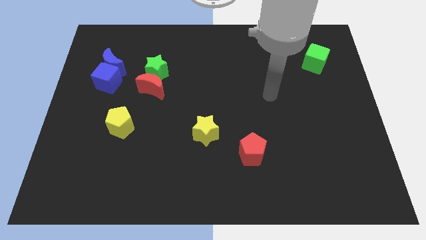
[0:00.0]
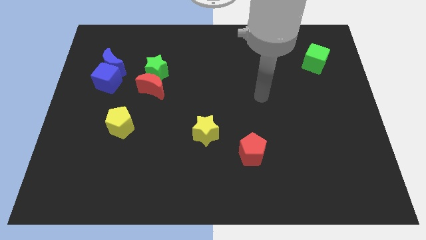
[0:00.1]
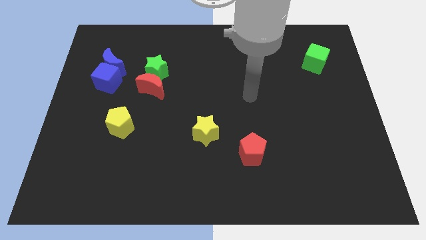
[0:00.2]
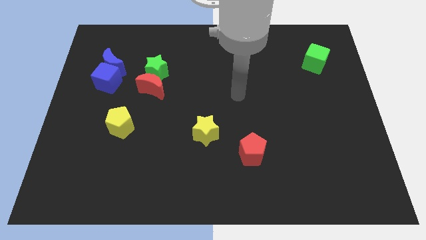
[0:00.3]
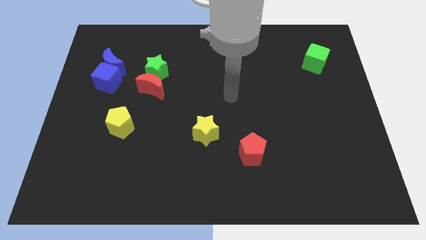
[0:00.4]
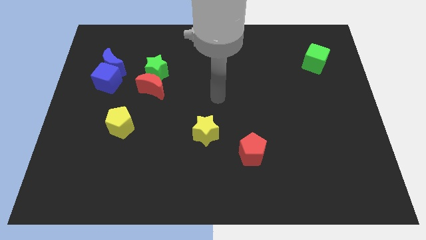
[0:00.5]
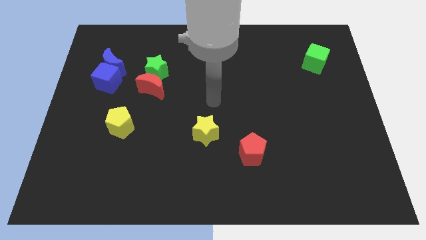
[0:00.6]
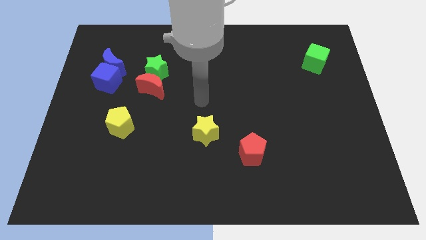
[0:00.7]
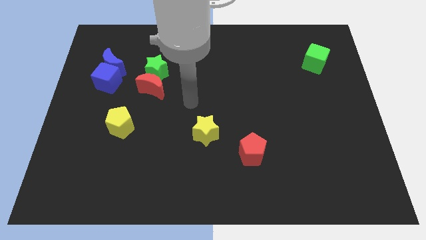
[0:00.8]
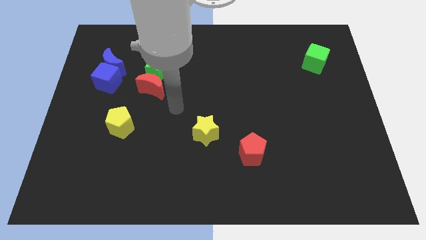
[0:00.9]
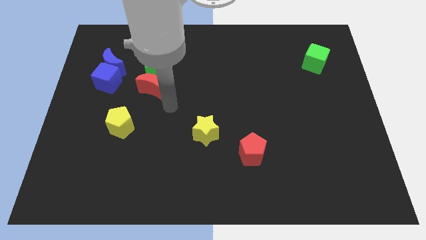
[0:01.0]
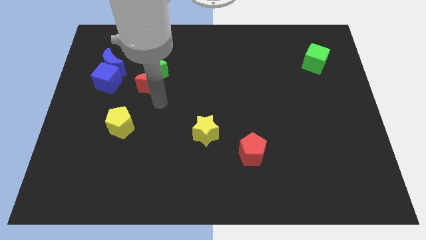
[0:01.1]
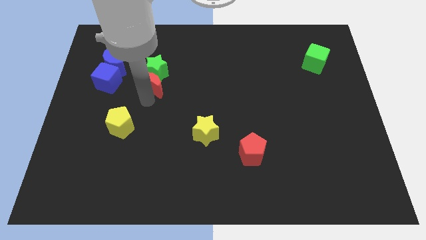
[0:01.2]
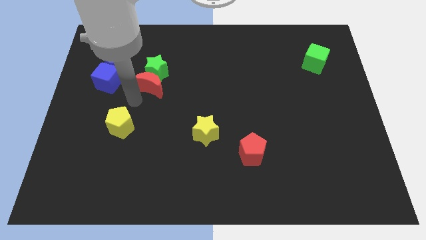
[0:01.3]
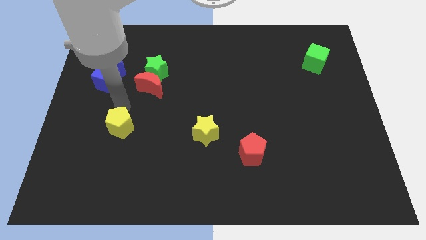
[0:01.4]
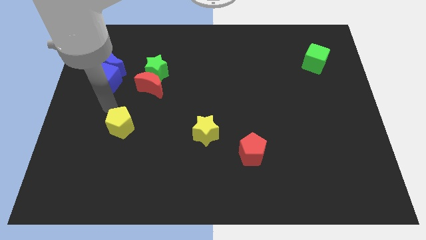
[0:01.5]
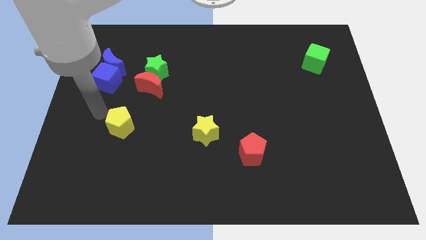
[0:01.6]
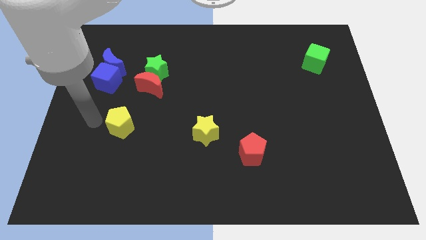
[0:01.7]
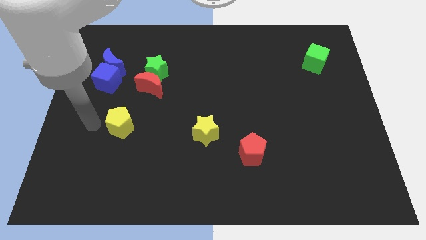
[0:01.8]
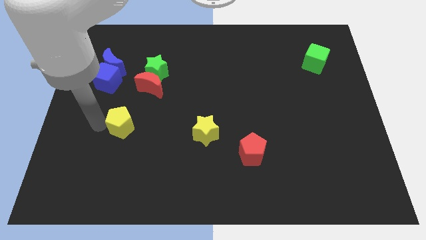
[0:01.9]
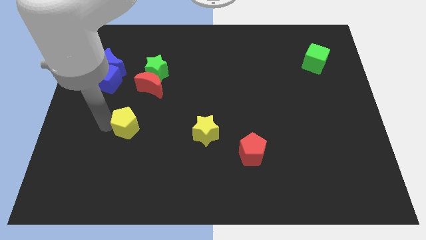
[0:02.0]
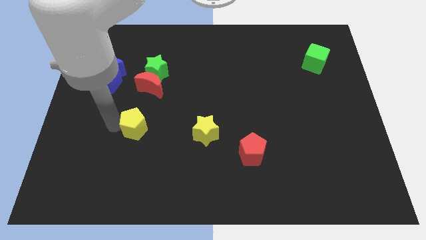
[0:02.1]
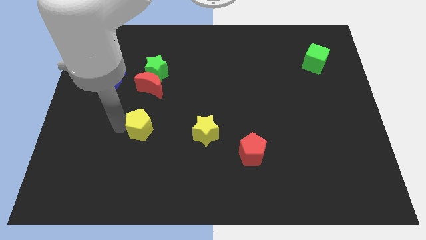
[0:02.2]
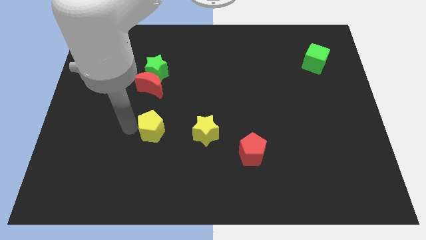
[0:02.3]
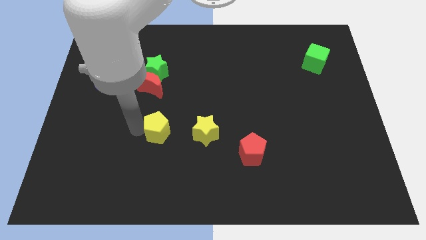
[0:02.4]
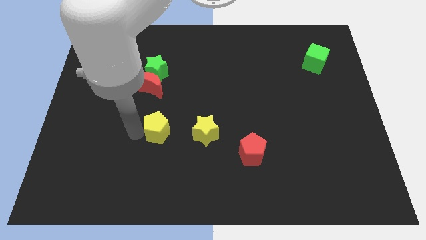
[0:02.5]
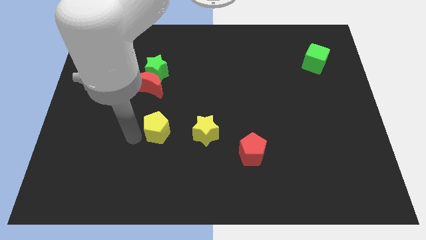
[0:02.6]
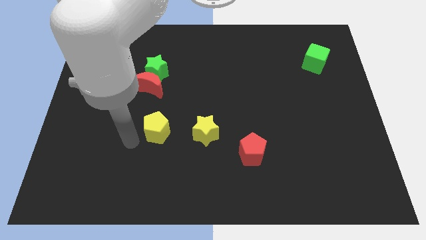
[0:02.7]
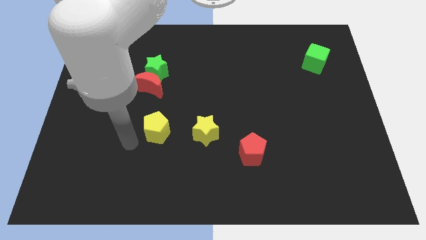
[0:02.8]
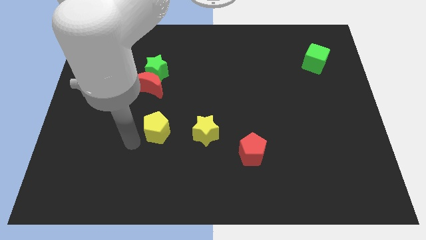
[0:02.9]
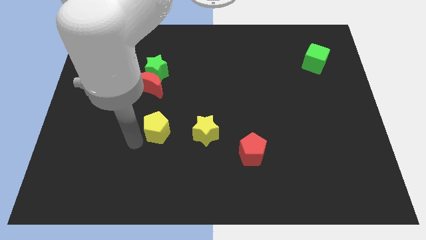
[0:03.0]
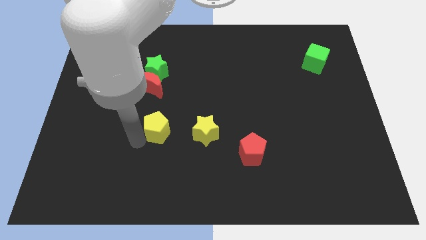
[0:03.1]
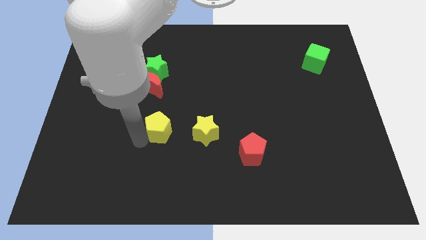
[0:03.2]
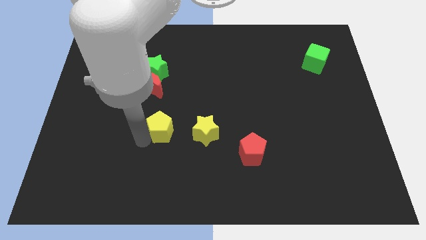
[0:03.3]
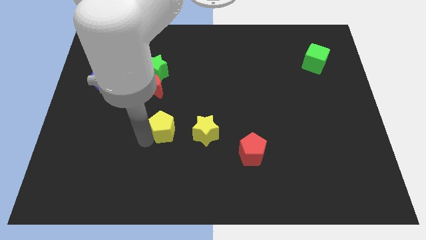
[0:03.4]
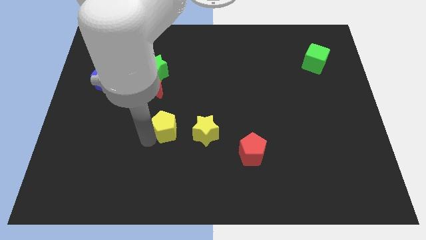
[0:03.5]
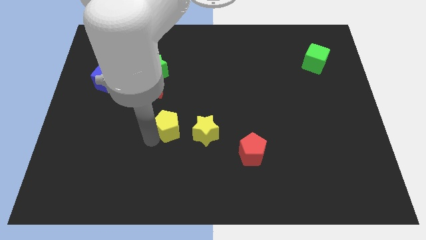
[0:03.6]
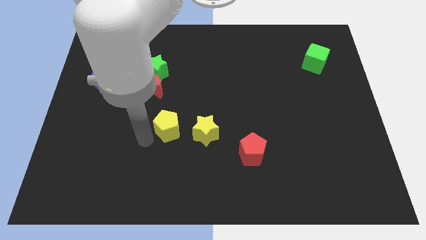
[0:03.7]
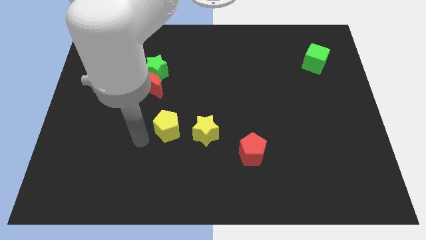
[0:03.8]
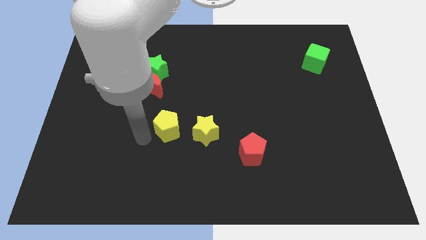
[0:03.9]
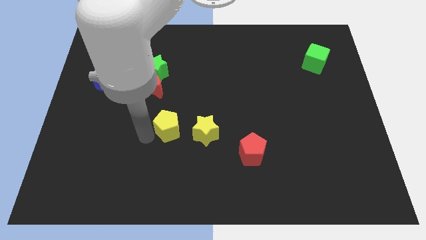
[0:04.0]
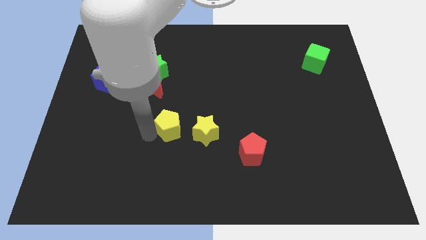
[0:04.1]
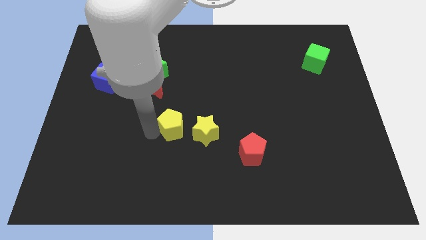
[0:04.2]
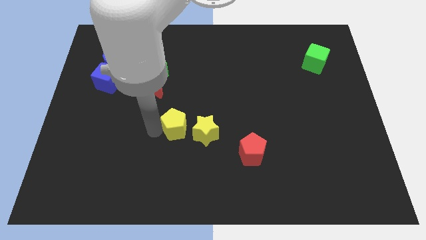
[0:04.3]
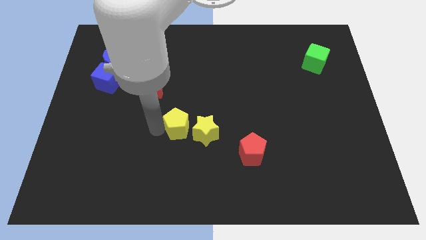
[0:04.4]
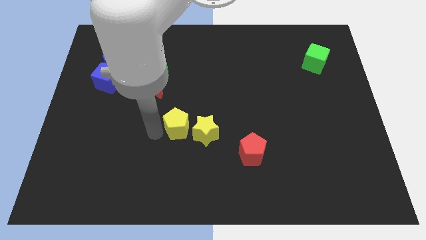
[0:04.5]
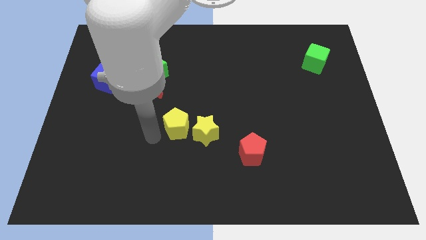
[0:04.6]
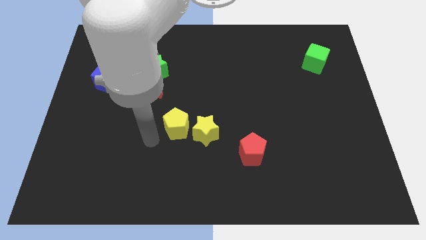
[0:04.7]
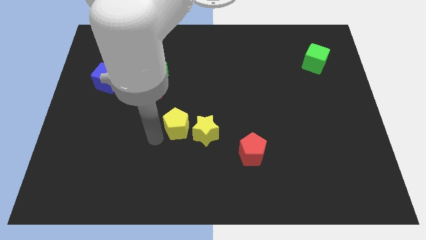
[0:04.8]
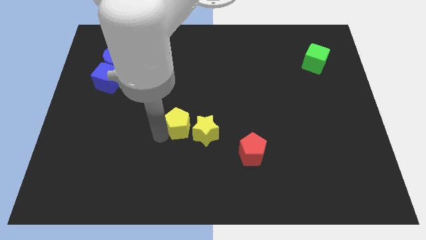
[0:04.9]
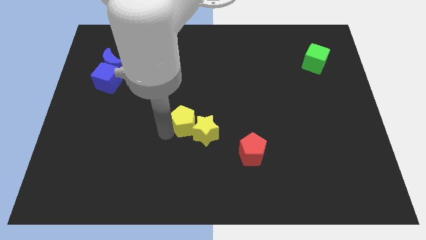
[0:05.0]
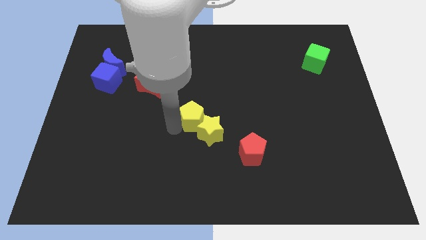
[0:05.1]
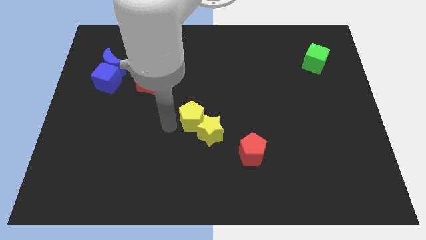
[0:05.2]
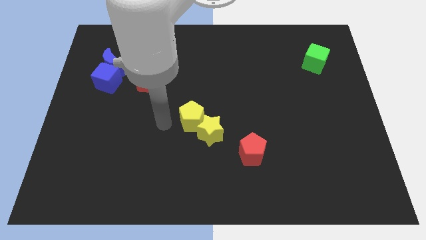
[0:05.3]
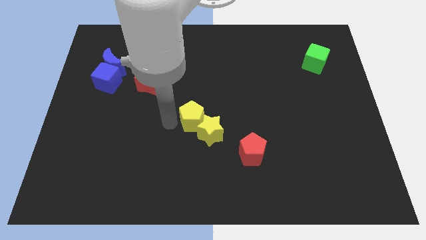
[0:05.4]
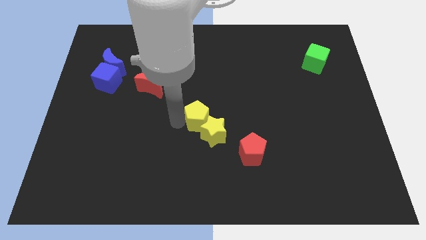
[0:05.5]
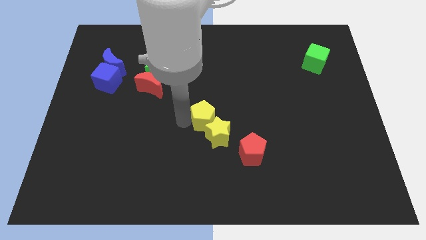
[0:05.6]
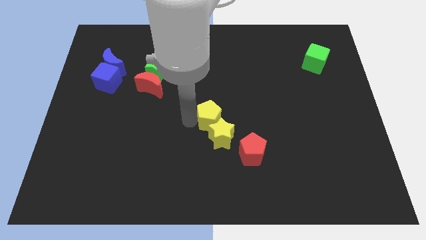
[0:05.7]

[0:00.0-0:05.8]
push the yellow pentagon to the right

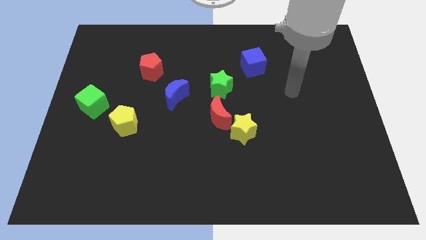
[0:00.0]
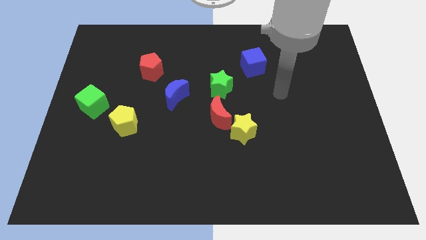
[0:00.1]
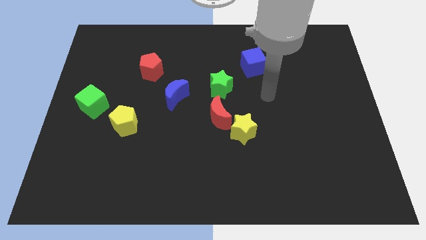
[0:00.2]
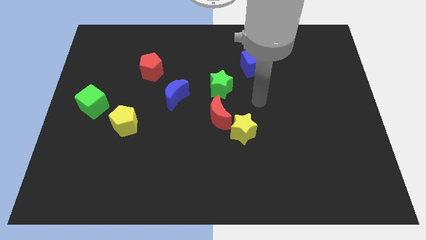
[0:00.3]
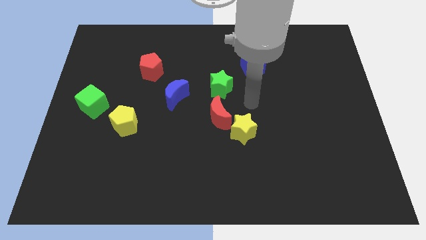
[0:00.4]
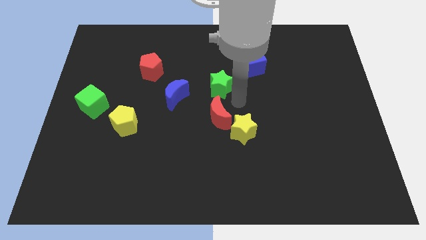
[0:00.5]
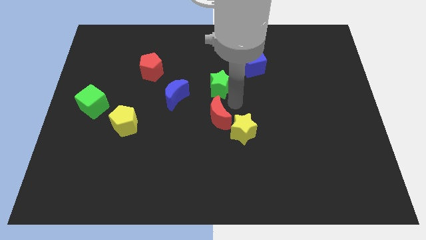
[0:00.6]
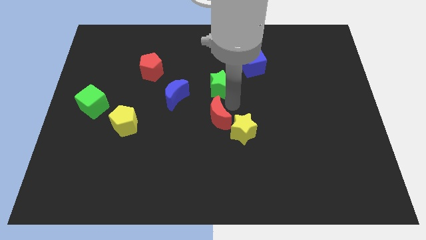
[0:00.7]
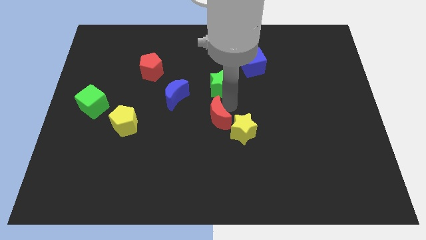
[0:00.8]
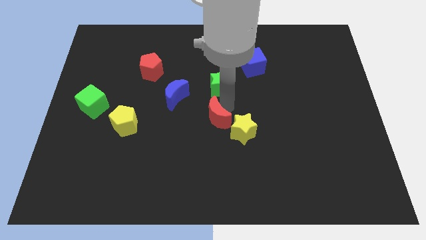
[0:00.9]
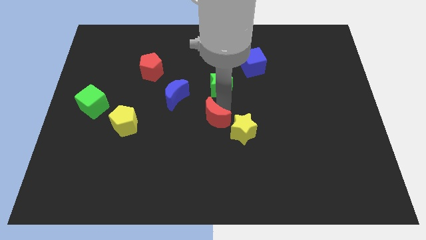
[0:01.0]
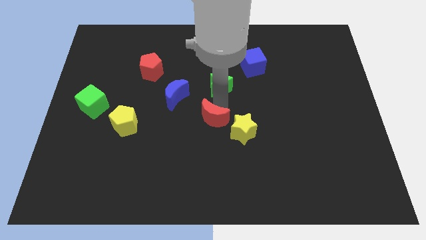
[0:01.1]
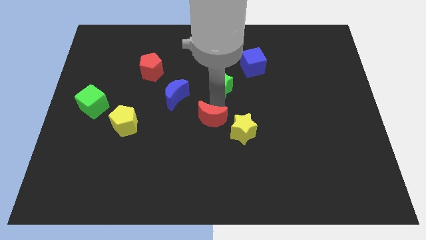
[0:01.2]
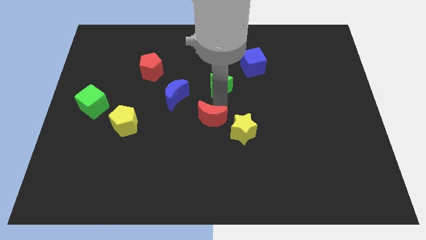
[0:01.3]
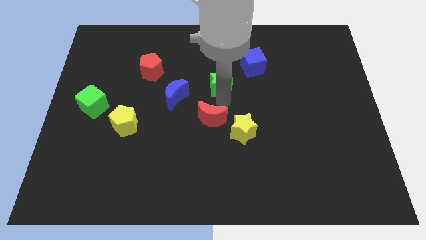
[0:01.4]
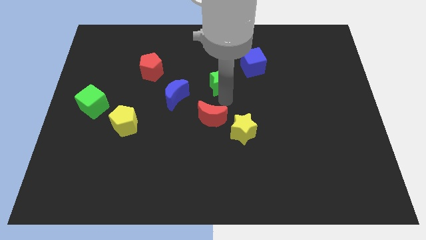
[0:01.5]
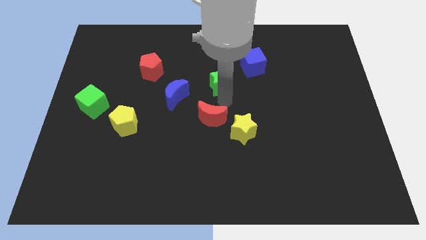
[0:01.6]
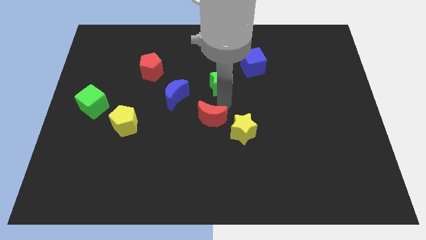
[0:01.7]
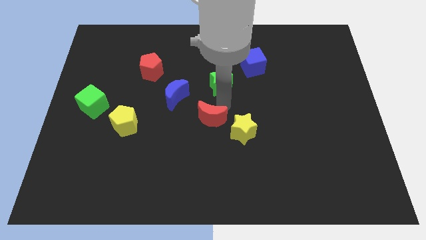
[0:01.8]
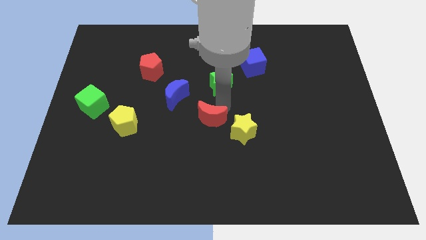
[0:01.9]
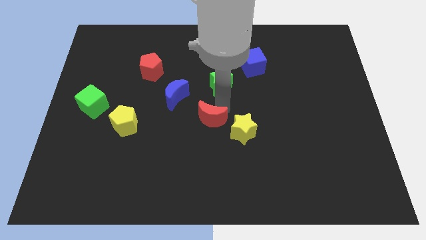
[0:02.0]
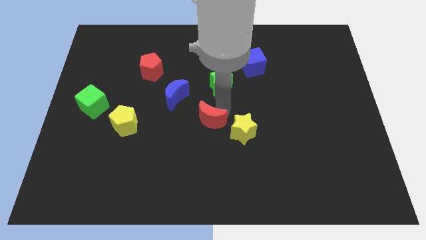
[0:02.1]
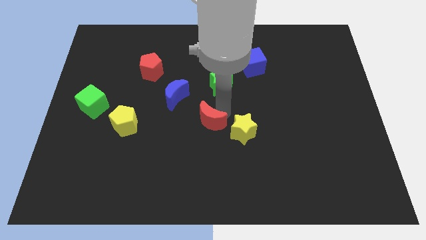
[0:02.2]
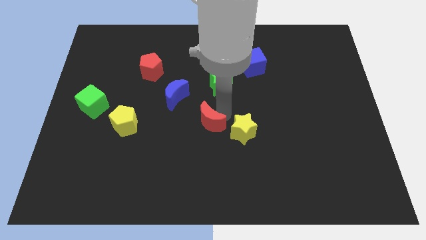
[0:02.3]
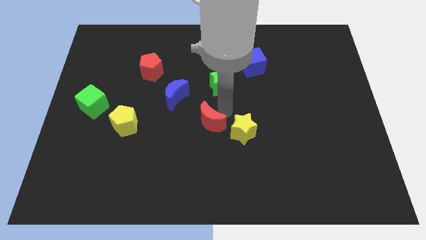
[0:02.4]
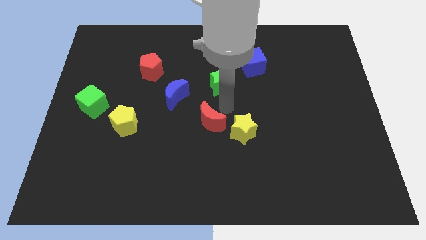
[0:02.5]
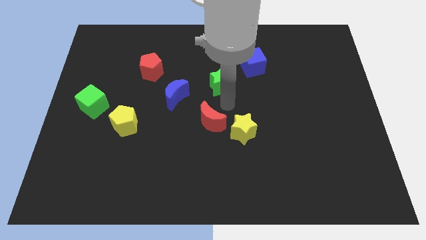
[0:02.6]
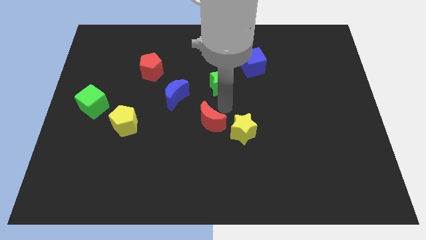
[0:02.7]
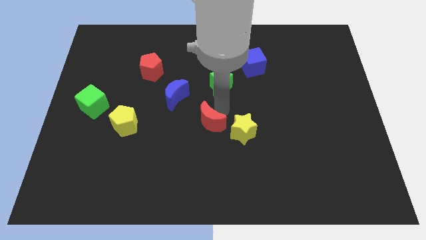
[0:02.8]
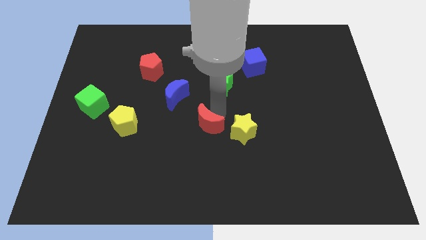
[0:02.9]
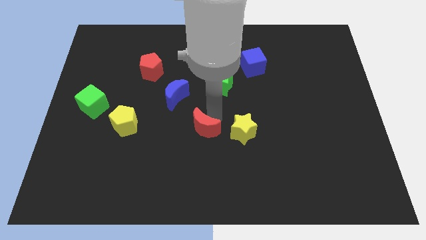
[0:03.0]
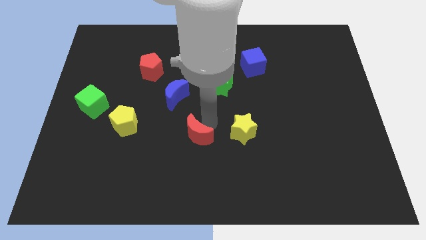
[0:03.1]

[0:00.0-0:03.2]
slide the red moon down and then left a little
